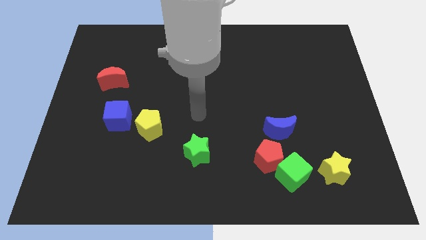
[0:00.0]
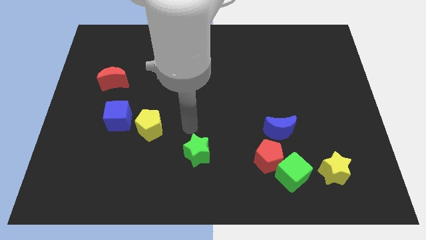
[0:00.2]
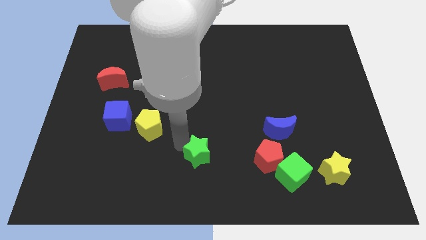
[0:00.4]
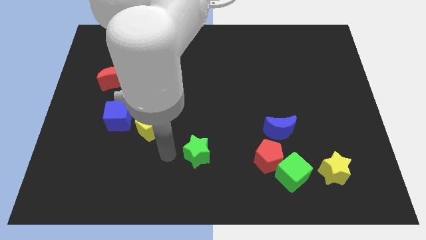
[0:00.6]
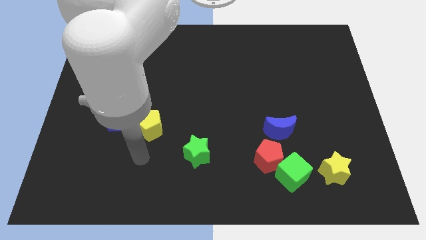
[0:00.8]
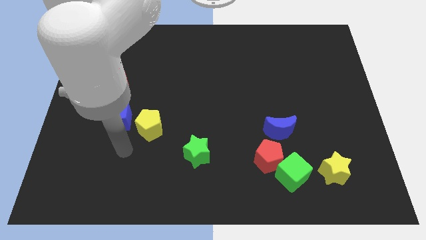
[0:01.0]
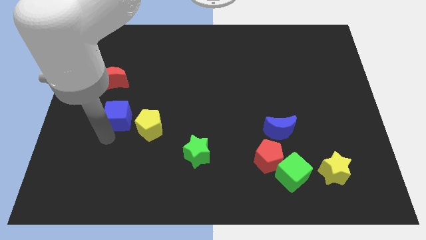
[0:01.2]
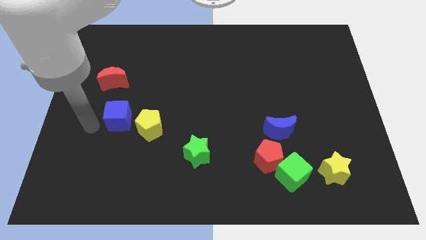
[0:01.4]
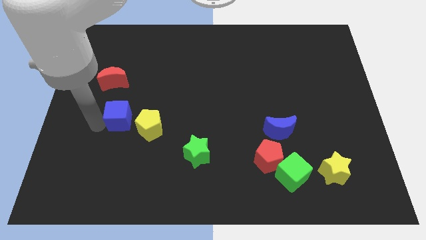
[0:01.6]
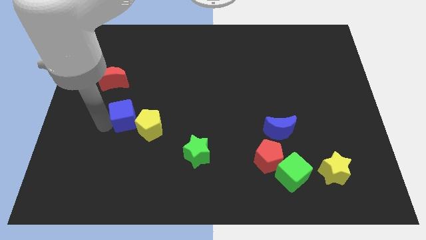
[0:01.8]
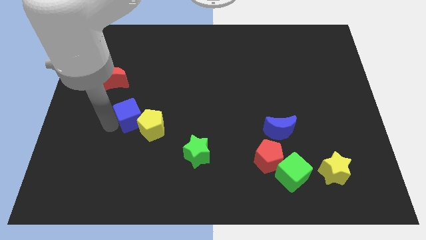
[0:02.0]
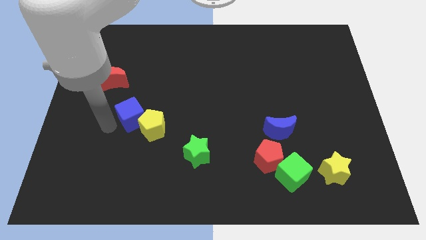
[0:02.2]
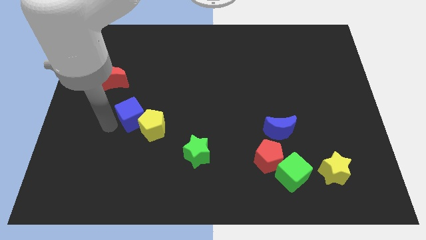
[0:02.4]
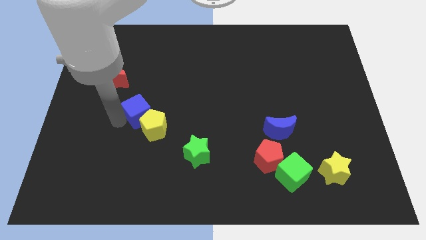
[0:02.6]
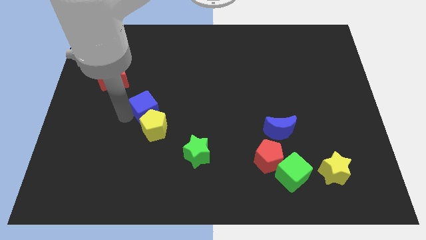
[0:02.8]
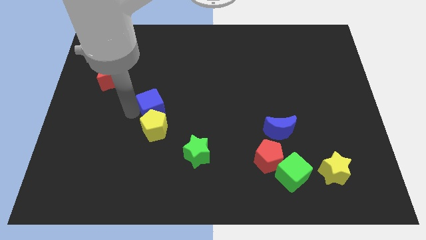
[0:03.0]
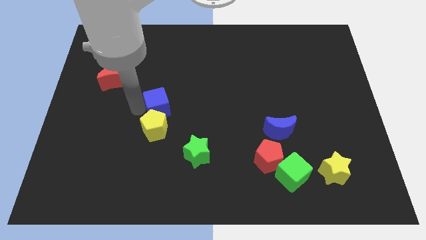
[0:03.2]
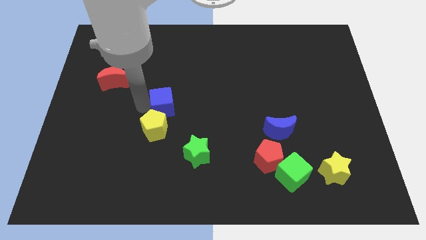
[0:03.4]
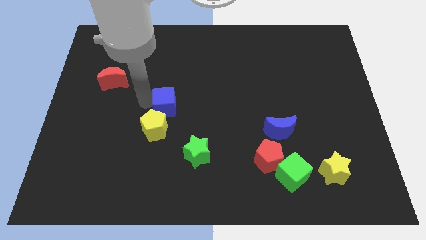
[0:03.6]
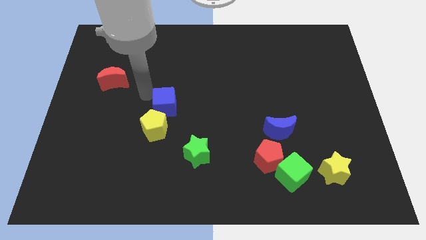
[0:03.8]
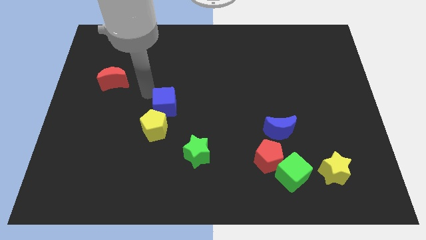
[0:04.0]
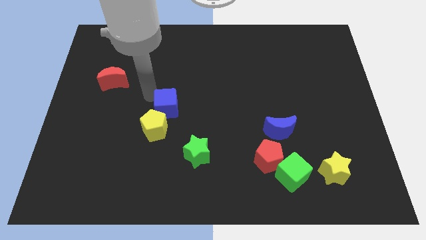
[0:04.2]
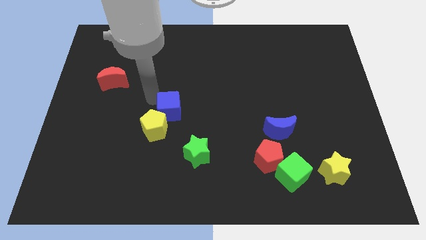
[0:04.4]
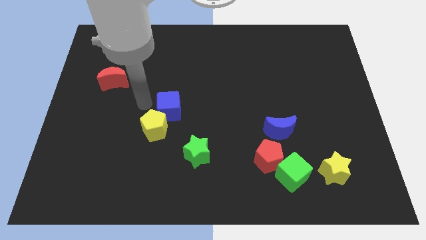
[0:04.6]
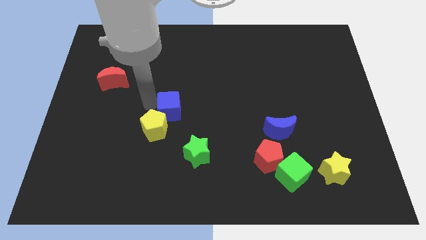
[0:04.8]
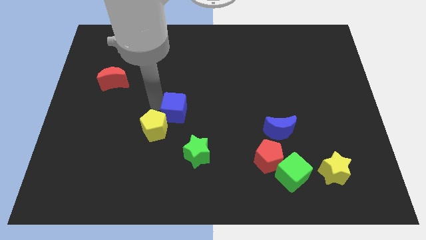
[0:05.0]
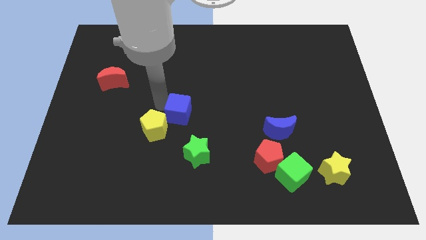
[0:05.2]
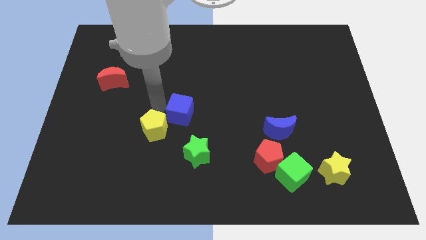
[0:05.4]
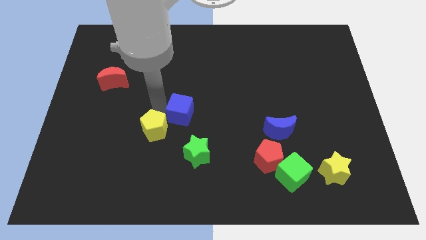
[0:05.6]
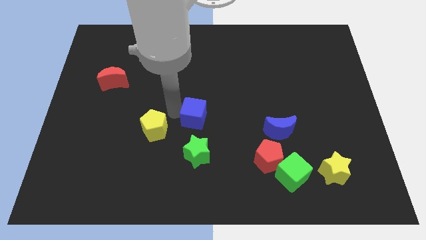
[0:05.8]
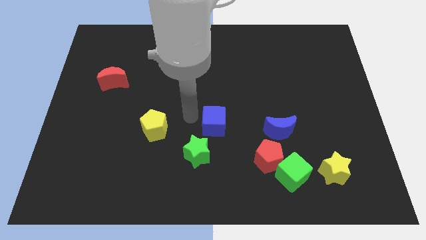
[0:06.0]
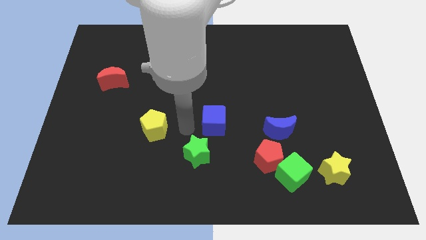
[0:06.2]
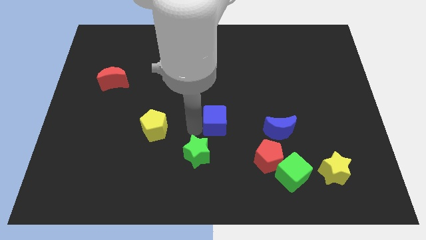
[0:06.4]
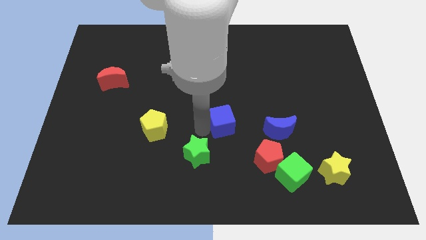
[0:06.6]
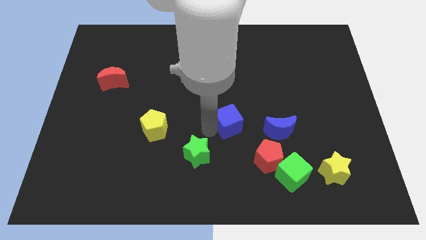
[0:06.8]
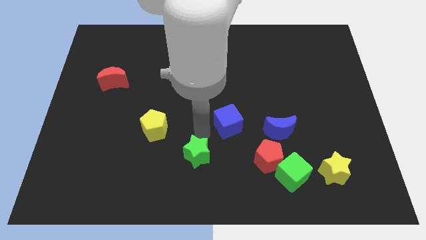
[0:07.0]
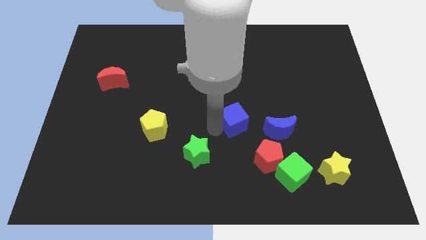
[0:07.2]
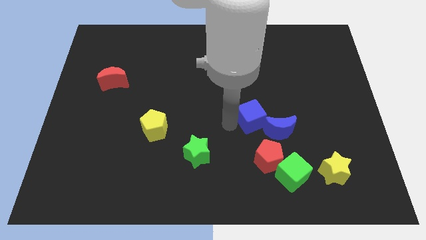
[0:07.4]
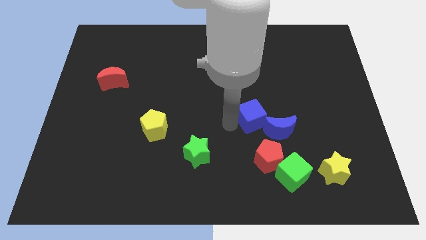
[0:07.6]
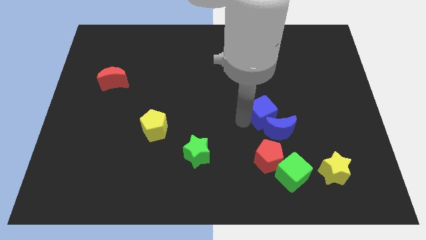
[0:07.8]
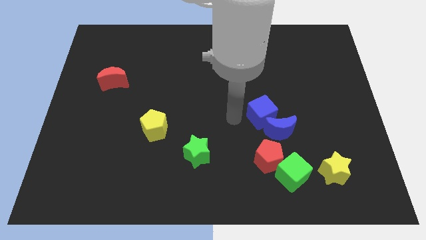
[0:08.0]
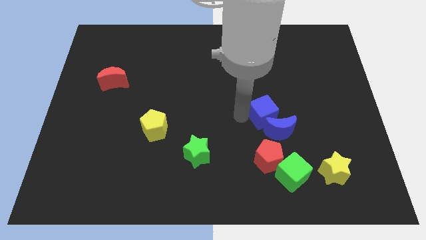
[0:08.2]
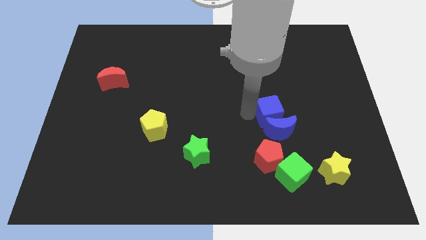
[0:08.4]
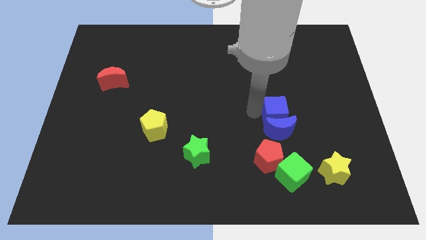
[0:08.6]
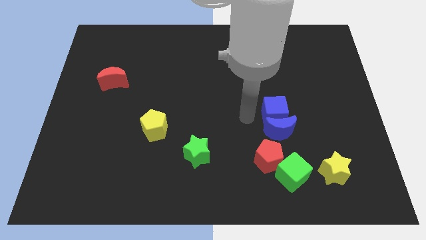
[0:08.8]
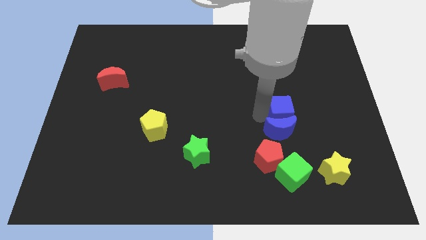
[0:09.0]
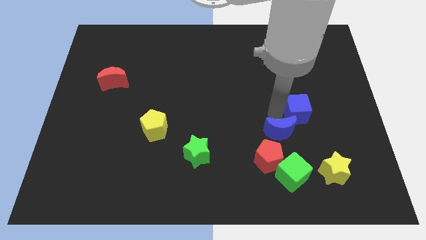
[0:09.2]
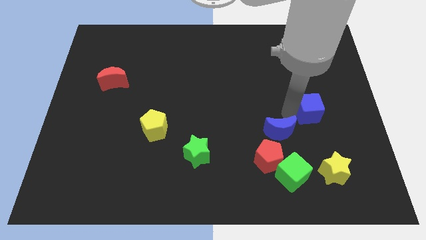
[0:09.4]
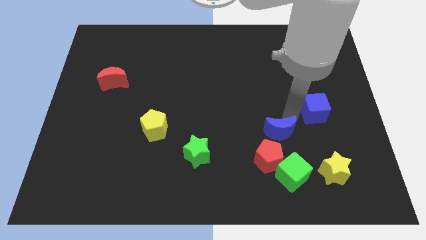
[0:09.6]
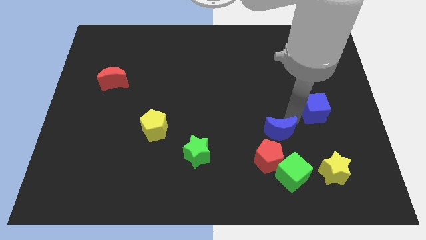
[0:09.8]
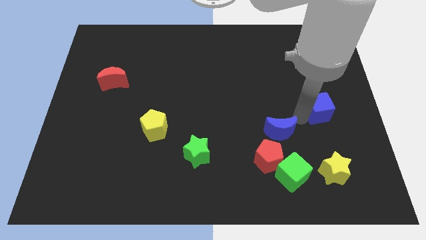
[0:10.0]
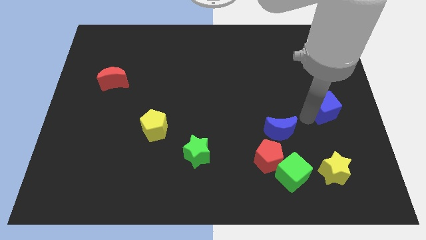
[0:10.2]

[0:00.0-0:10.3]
move the blue cube to the center right

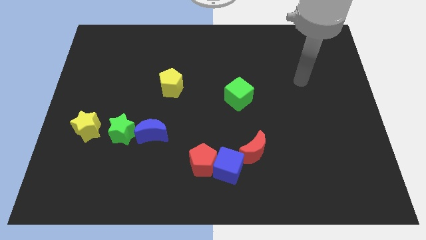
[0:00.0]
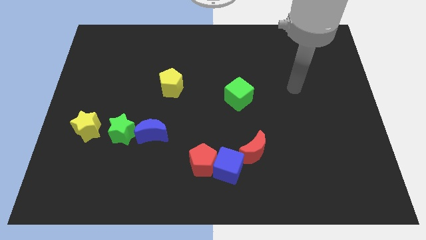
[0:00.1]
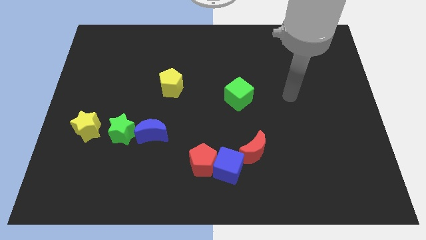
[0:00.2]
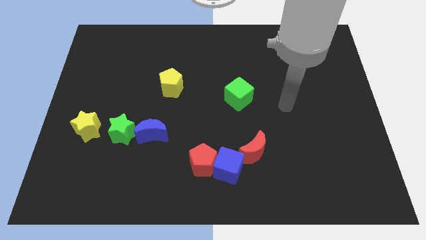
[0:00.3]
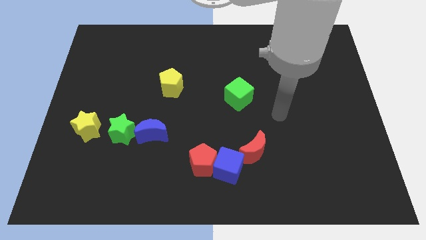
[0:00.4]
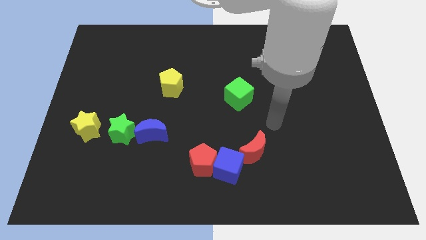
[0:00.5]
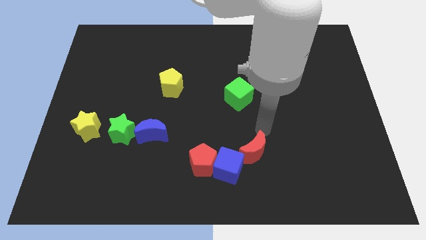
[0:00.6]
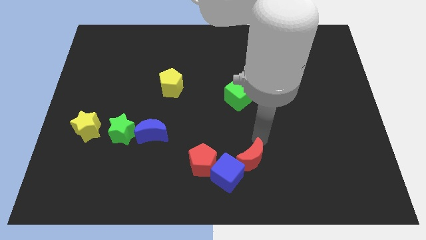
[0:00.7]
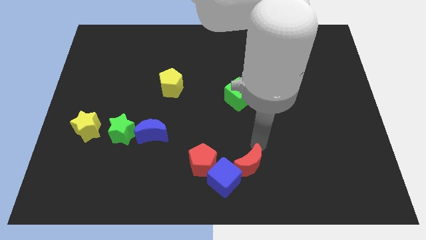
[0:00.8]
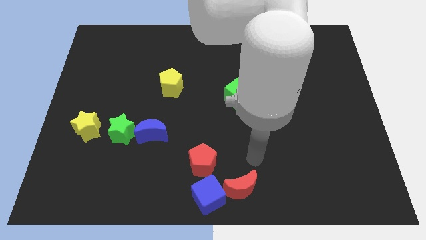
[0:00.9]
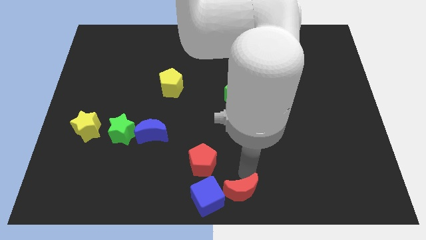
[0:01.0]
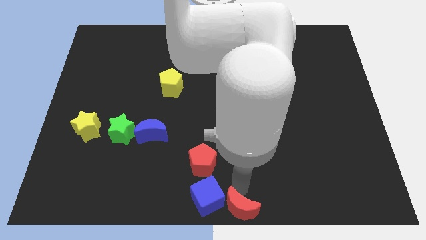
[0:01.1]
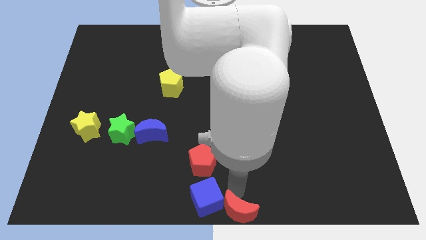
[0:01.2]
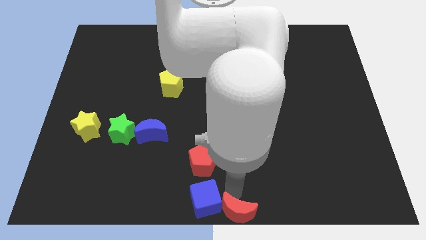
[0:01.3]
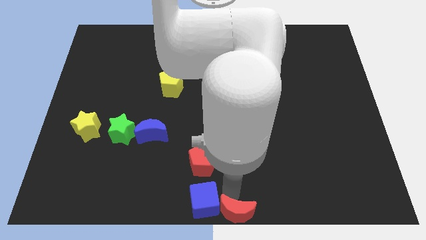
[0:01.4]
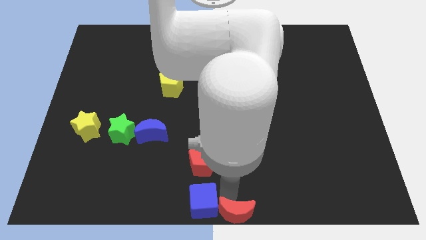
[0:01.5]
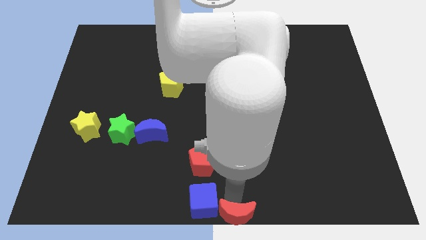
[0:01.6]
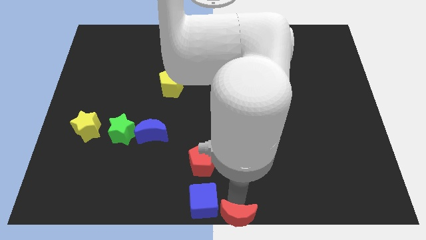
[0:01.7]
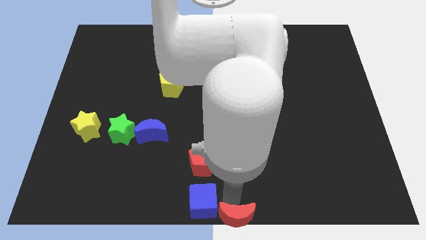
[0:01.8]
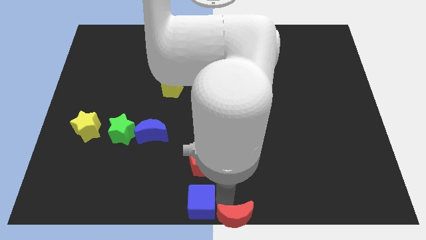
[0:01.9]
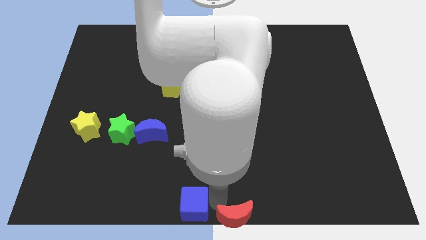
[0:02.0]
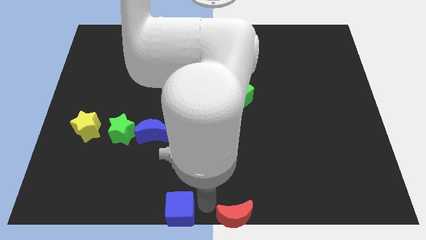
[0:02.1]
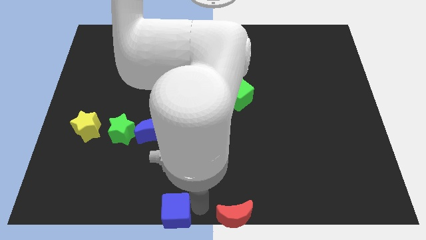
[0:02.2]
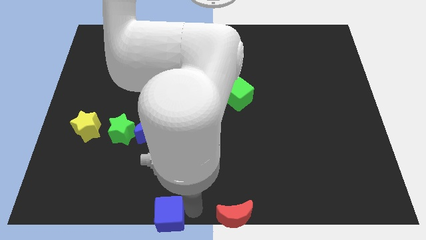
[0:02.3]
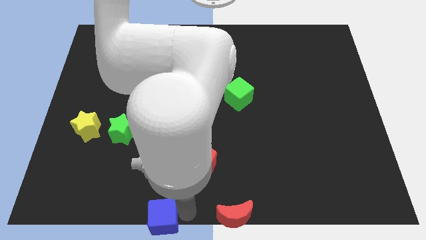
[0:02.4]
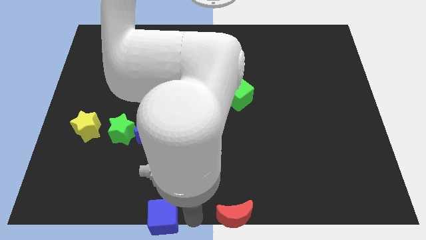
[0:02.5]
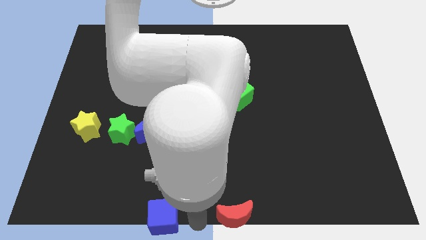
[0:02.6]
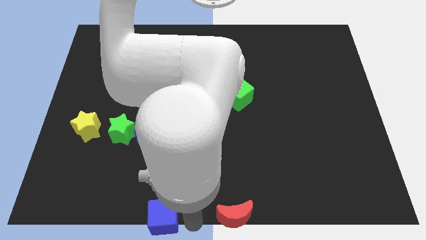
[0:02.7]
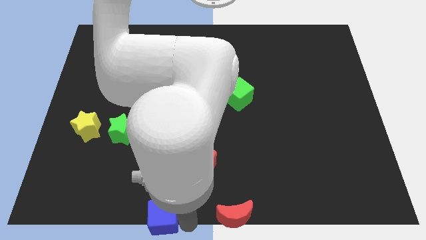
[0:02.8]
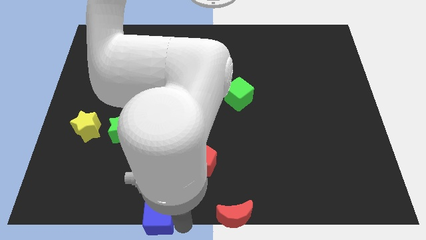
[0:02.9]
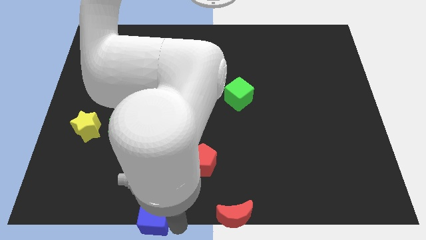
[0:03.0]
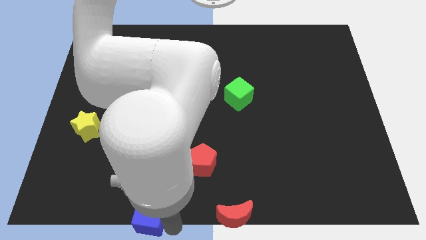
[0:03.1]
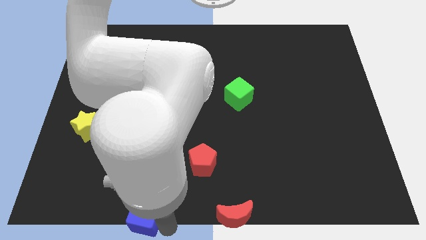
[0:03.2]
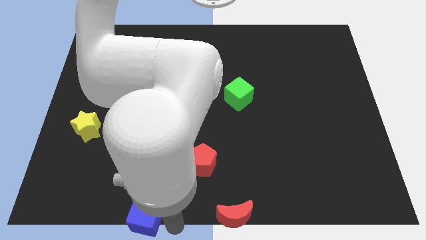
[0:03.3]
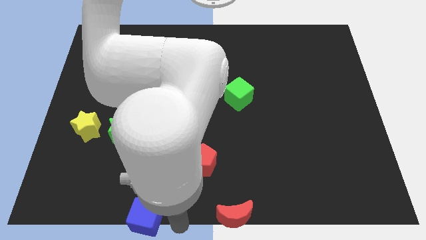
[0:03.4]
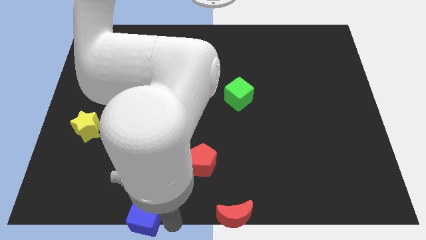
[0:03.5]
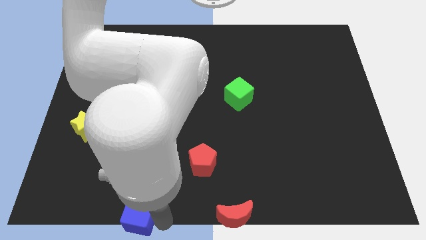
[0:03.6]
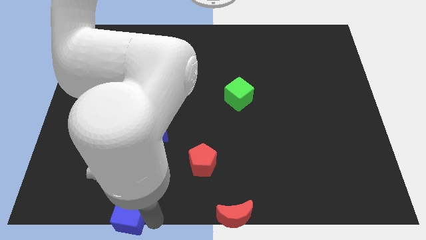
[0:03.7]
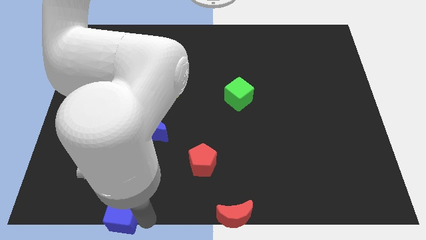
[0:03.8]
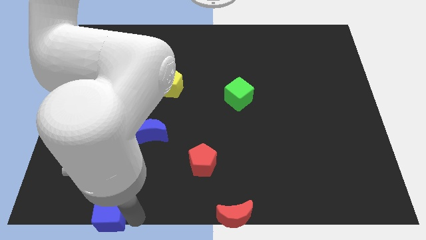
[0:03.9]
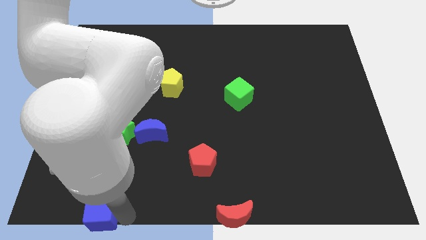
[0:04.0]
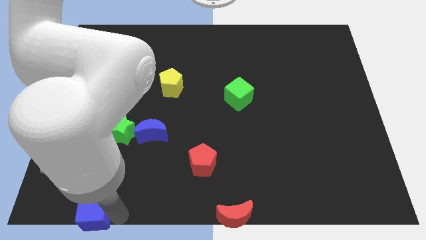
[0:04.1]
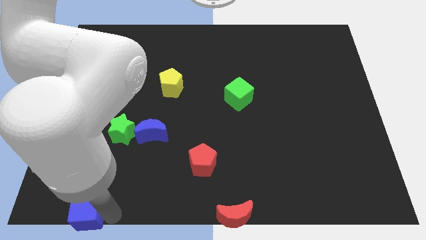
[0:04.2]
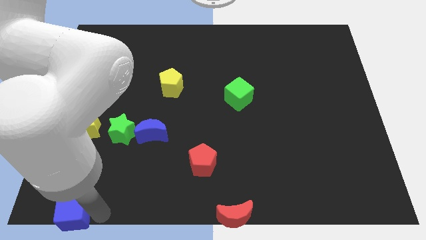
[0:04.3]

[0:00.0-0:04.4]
slide the blue cube to the lower left corner
